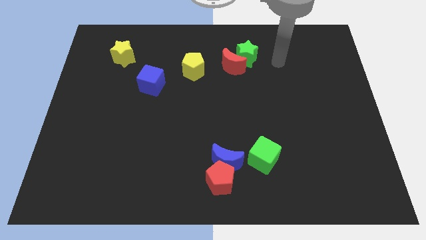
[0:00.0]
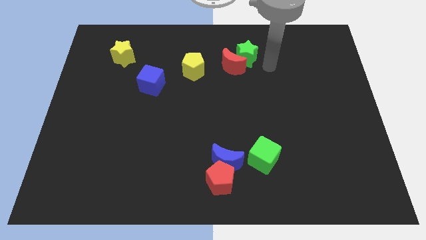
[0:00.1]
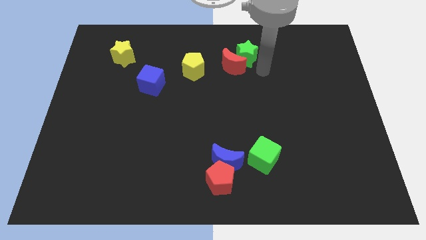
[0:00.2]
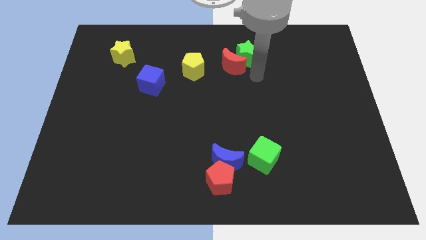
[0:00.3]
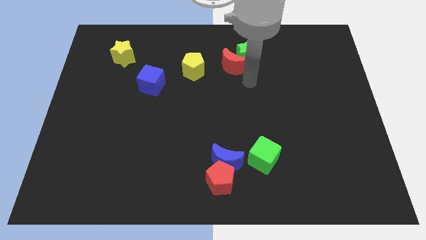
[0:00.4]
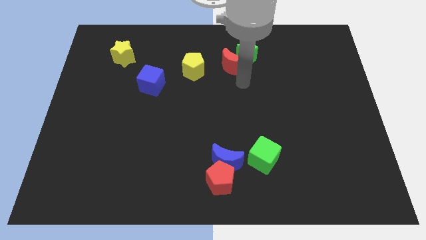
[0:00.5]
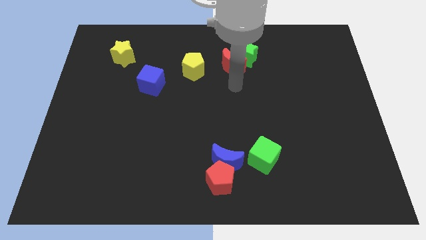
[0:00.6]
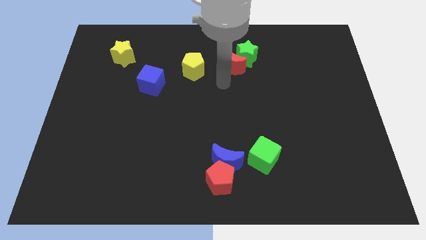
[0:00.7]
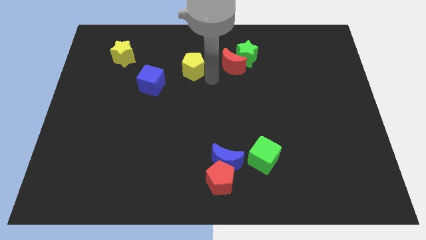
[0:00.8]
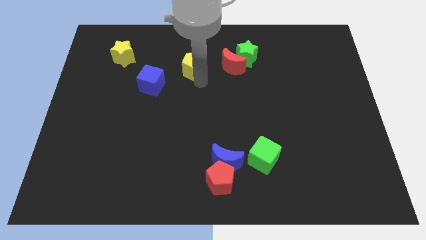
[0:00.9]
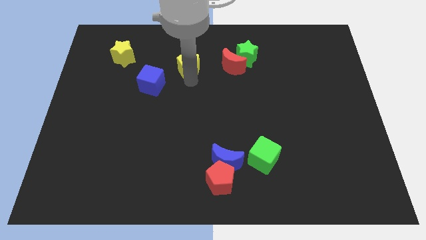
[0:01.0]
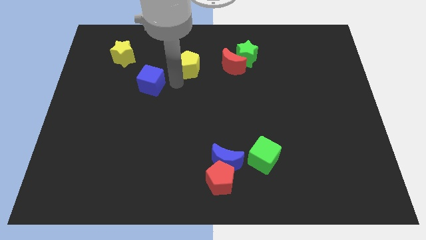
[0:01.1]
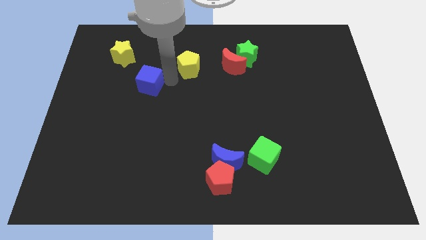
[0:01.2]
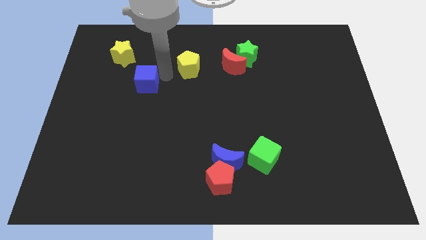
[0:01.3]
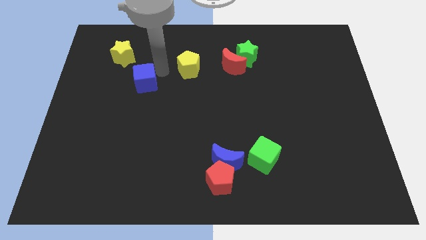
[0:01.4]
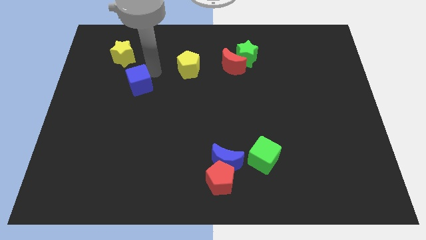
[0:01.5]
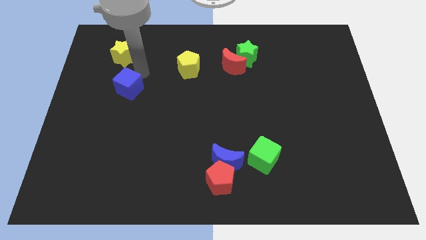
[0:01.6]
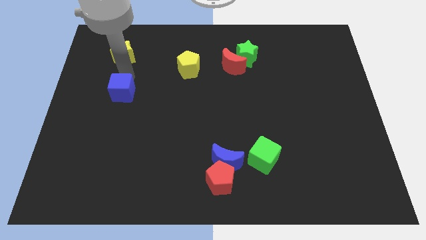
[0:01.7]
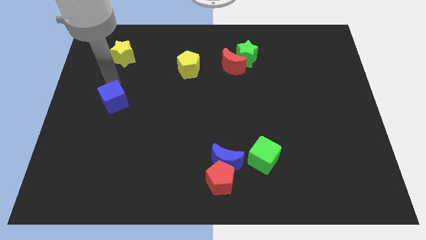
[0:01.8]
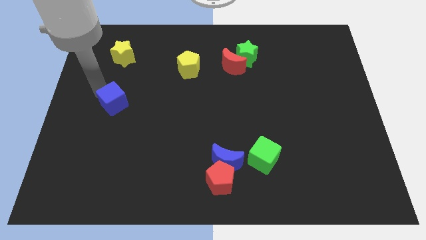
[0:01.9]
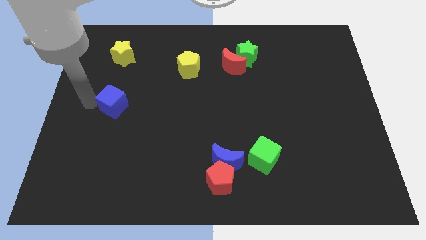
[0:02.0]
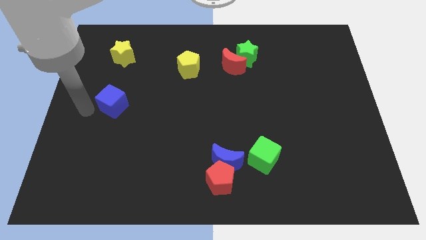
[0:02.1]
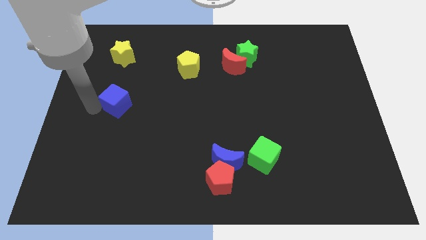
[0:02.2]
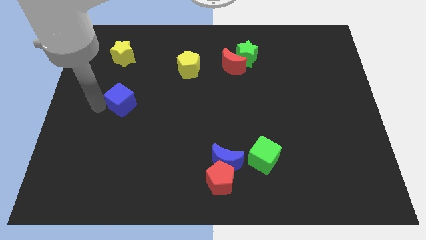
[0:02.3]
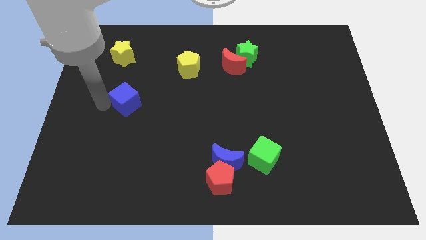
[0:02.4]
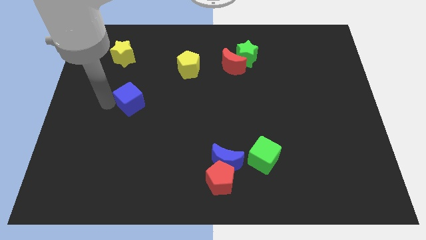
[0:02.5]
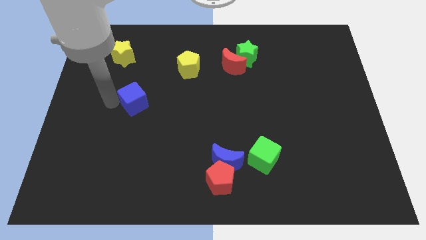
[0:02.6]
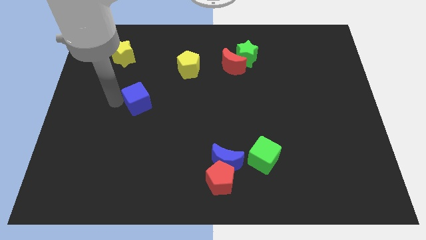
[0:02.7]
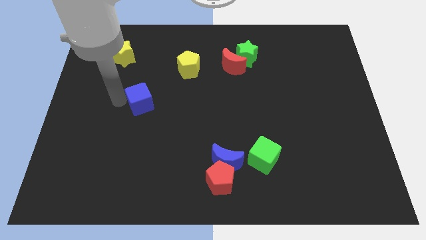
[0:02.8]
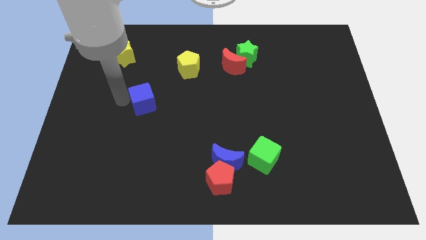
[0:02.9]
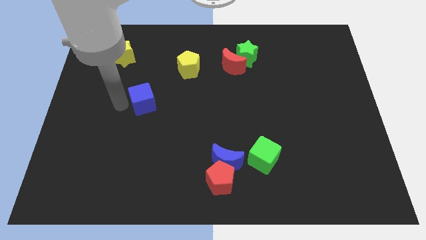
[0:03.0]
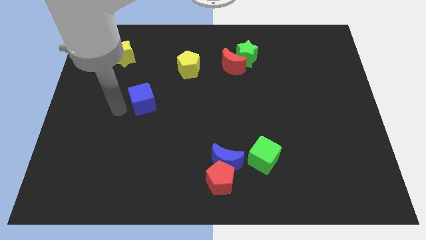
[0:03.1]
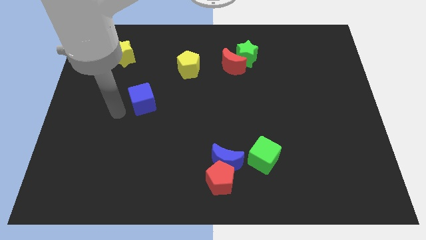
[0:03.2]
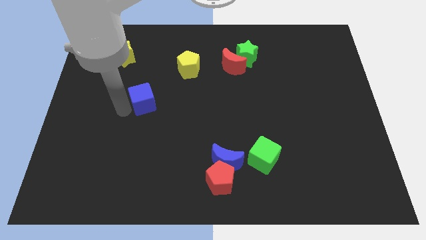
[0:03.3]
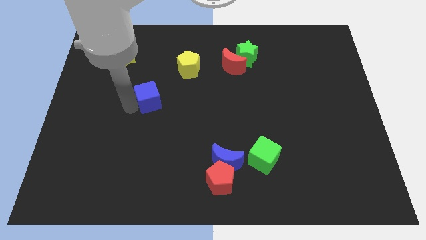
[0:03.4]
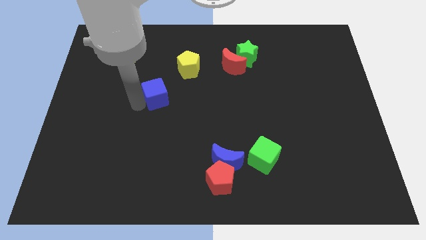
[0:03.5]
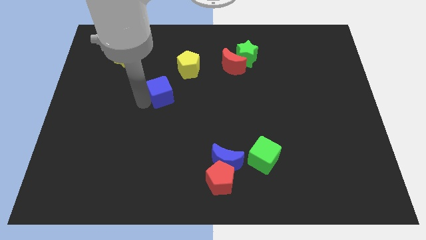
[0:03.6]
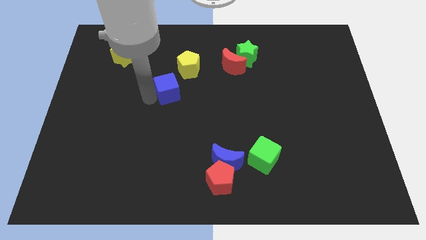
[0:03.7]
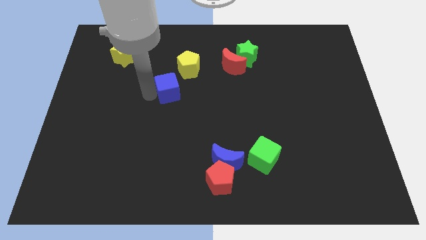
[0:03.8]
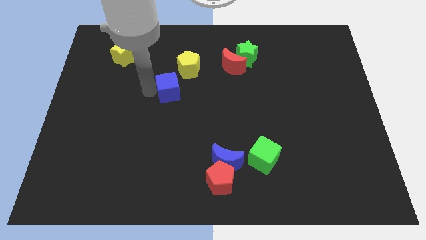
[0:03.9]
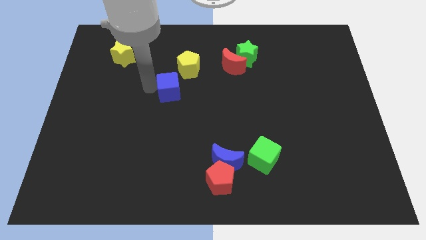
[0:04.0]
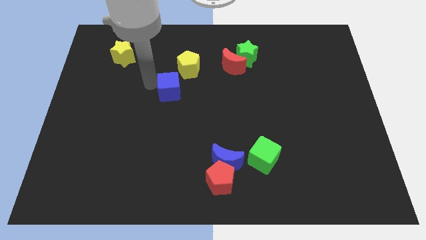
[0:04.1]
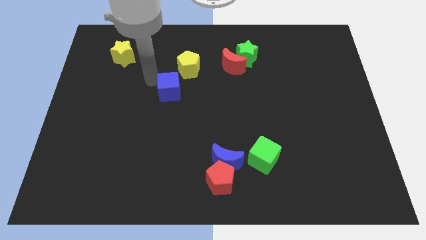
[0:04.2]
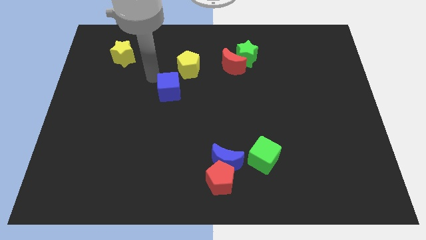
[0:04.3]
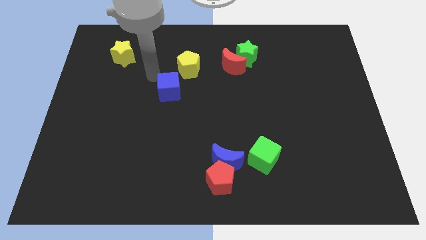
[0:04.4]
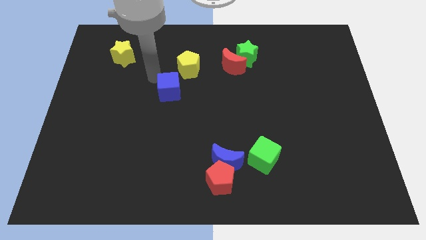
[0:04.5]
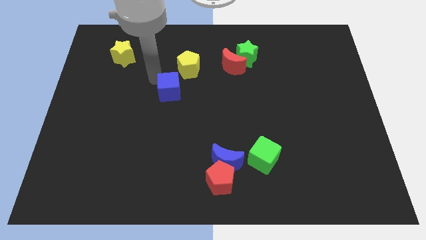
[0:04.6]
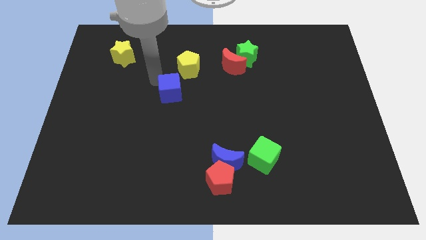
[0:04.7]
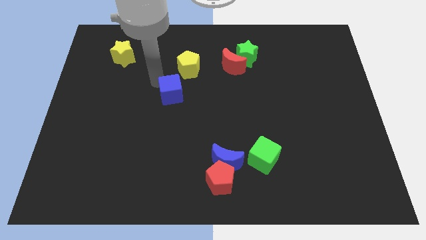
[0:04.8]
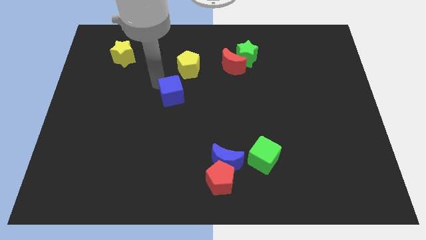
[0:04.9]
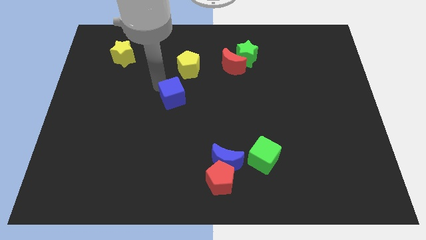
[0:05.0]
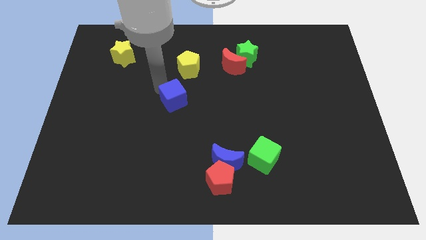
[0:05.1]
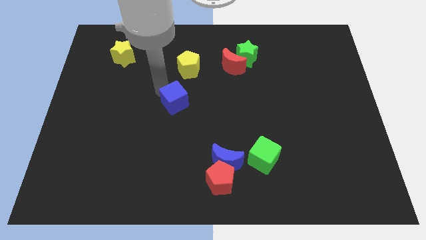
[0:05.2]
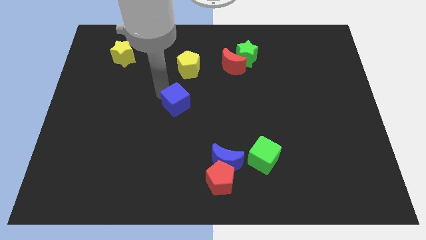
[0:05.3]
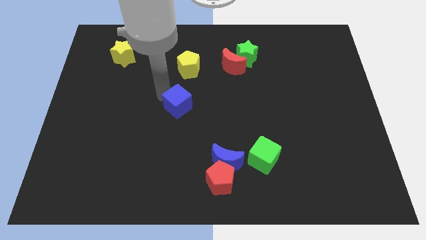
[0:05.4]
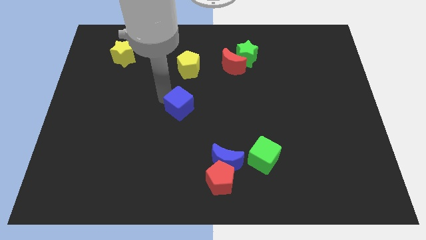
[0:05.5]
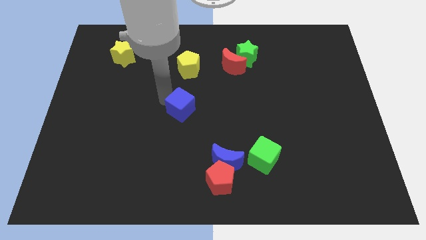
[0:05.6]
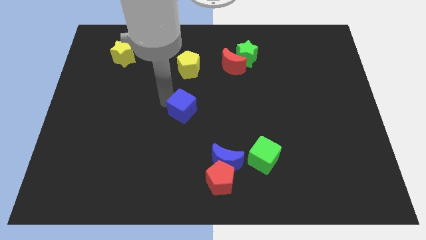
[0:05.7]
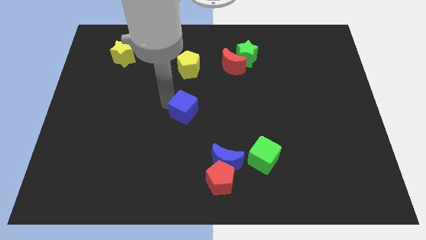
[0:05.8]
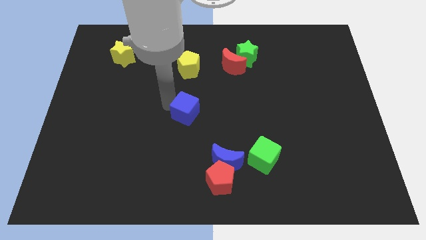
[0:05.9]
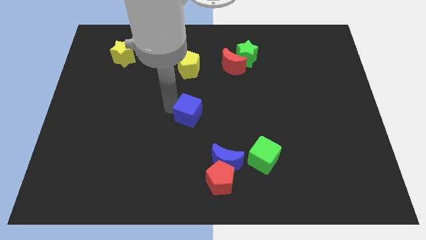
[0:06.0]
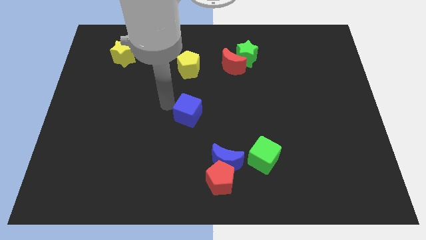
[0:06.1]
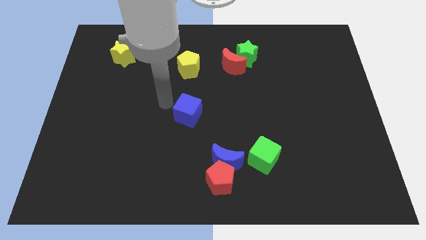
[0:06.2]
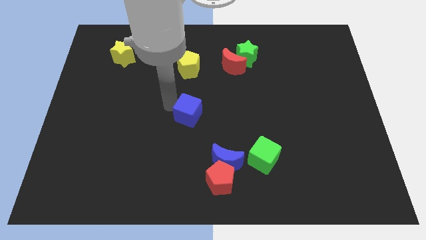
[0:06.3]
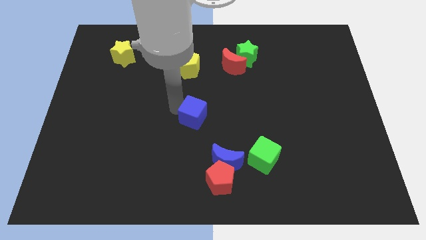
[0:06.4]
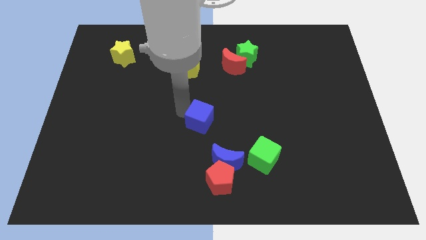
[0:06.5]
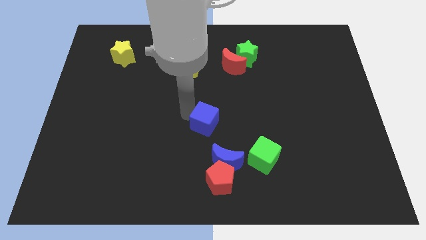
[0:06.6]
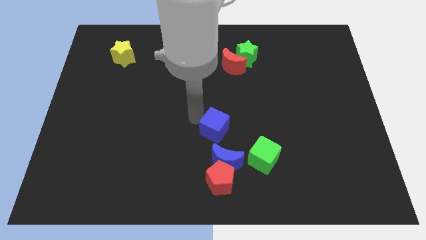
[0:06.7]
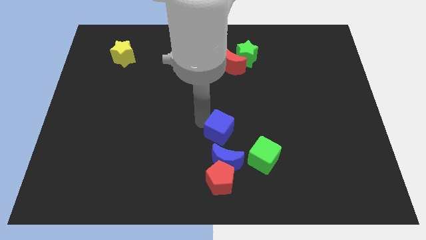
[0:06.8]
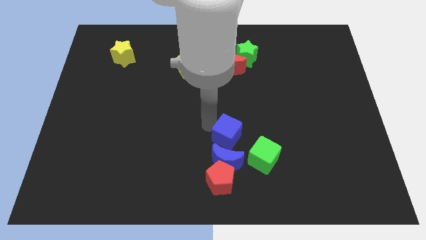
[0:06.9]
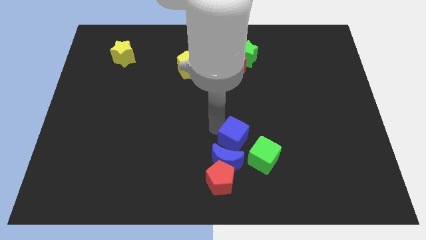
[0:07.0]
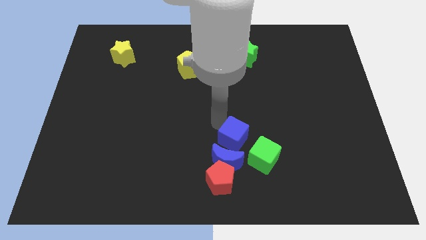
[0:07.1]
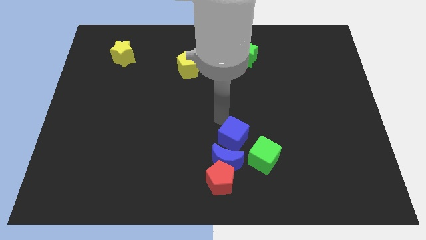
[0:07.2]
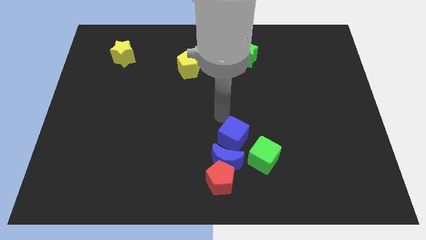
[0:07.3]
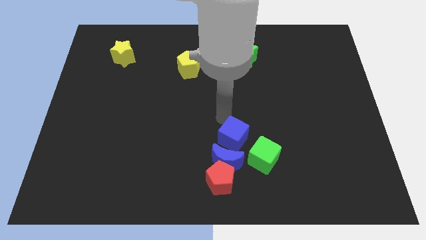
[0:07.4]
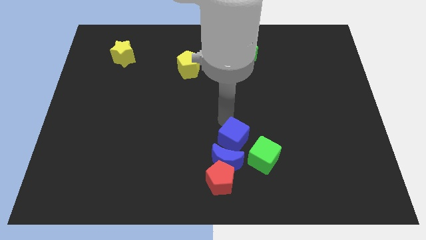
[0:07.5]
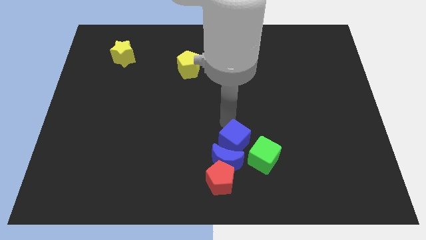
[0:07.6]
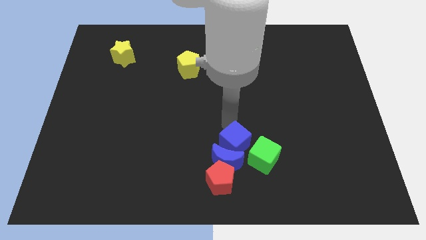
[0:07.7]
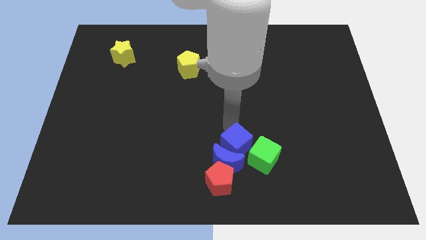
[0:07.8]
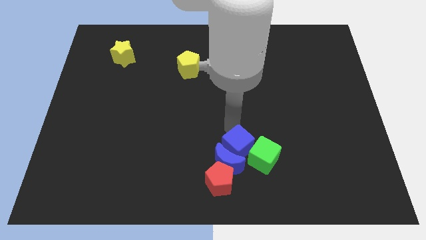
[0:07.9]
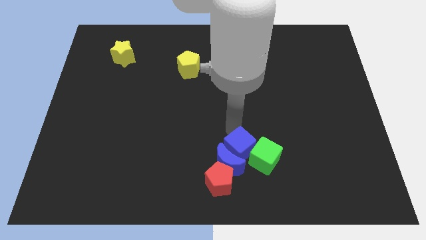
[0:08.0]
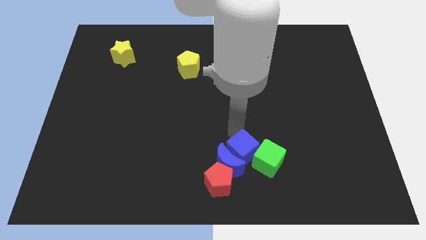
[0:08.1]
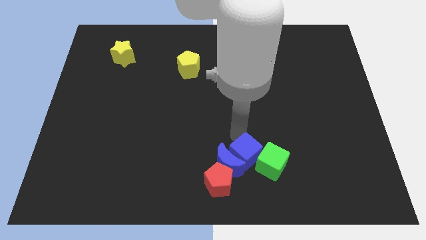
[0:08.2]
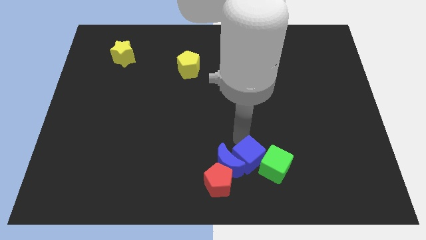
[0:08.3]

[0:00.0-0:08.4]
slide the blue cube to the bottom right of the blue moon
